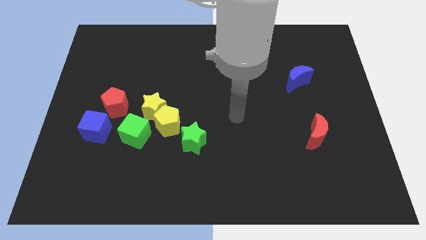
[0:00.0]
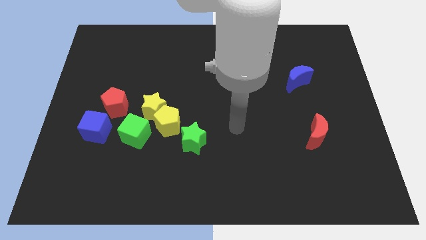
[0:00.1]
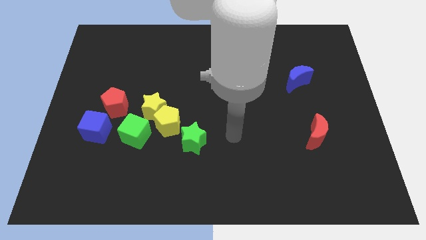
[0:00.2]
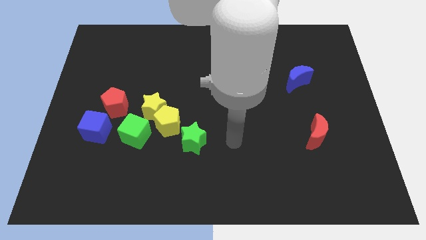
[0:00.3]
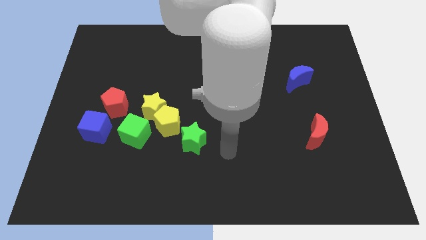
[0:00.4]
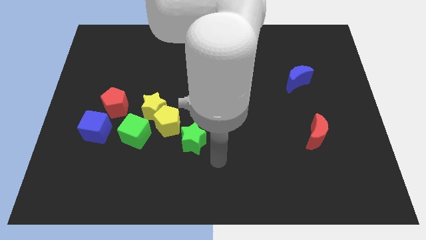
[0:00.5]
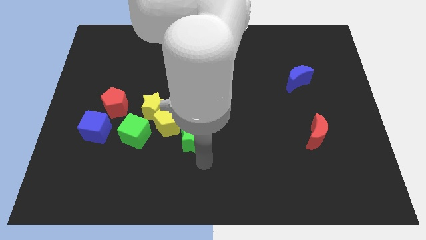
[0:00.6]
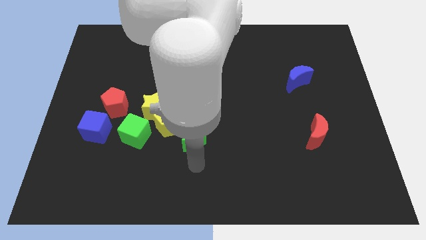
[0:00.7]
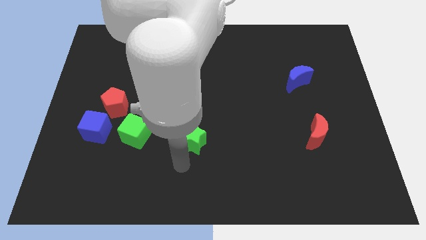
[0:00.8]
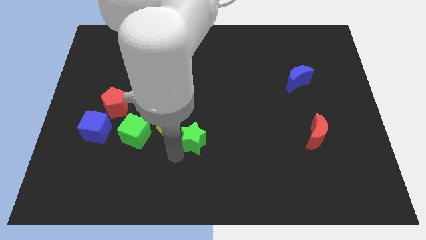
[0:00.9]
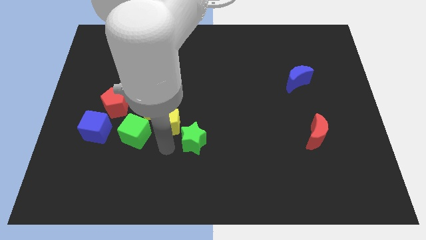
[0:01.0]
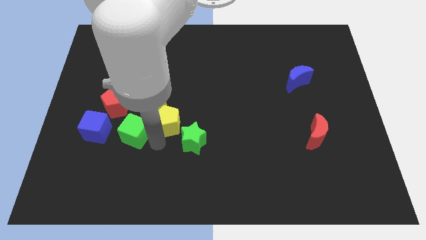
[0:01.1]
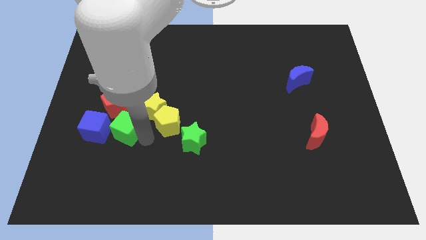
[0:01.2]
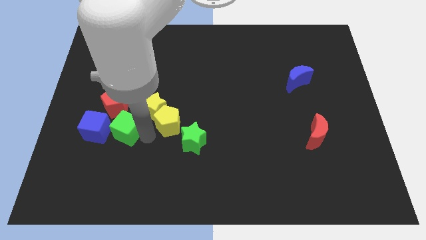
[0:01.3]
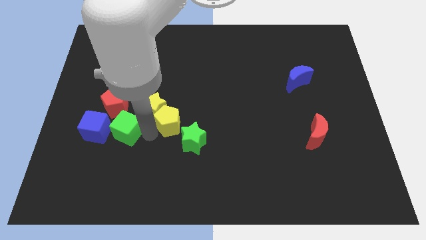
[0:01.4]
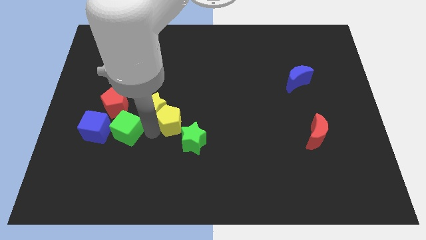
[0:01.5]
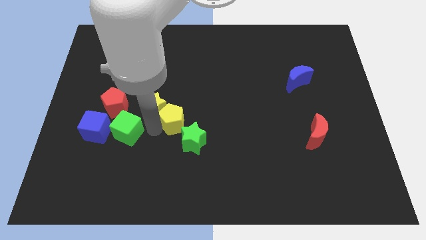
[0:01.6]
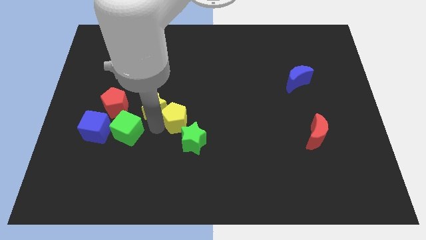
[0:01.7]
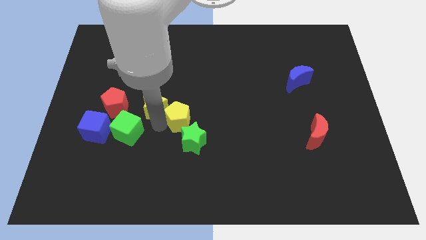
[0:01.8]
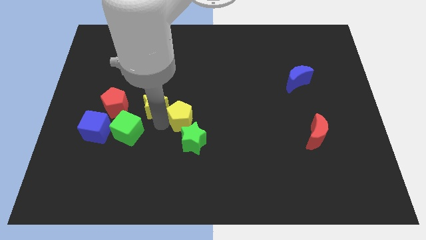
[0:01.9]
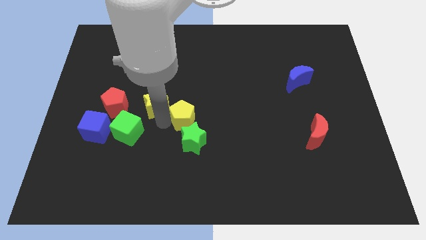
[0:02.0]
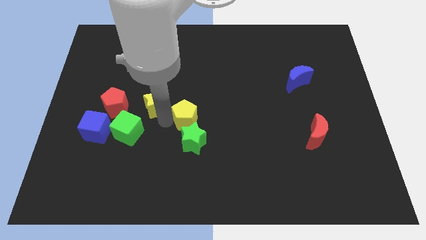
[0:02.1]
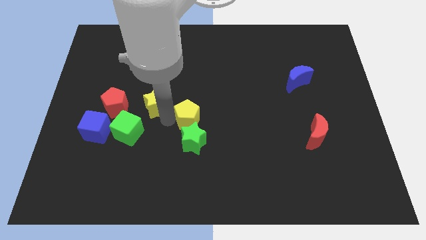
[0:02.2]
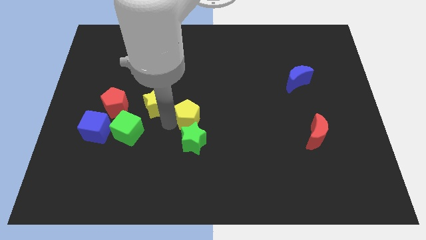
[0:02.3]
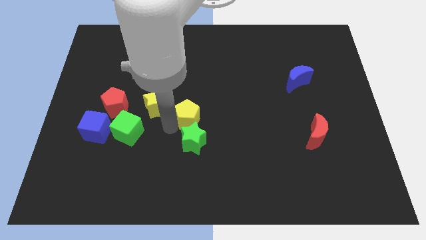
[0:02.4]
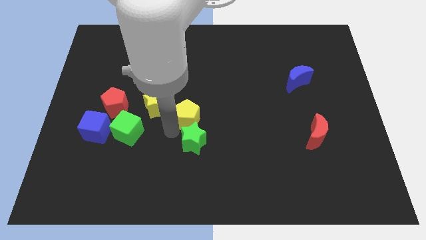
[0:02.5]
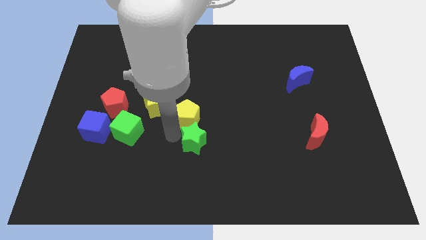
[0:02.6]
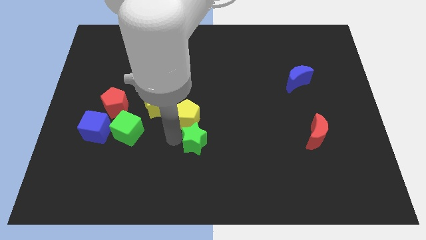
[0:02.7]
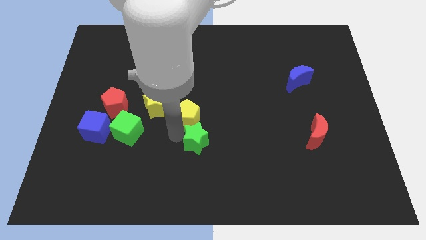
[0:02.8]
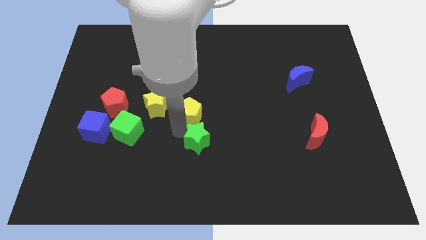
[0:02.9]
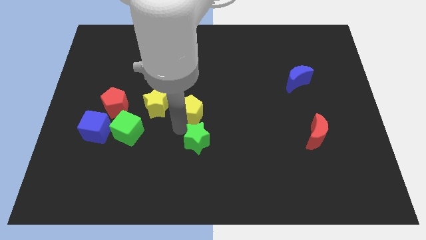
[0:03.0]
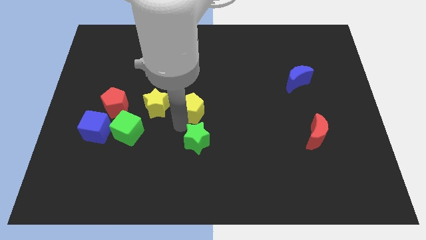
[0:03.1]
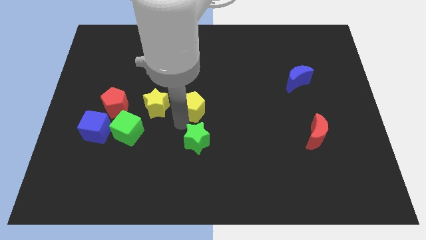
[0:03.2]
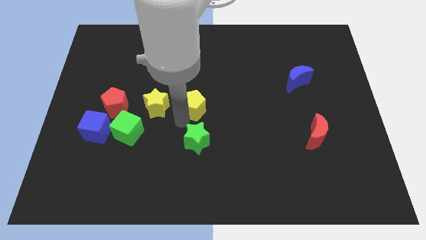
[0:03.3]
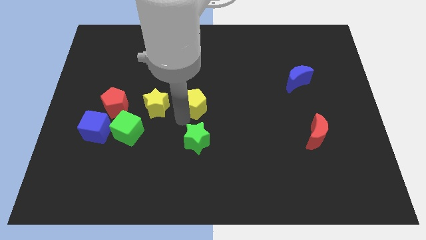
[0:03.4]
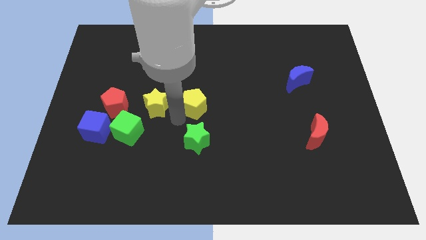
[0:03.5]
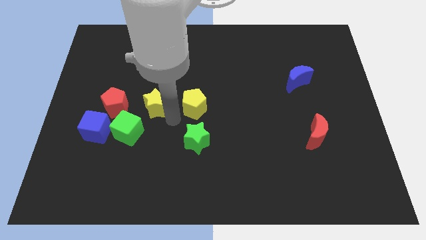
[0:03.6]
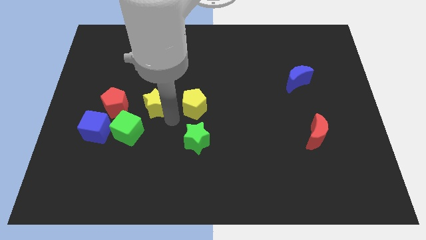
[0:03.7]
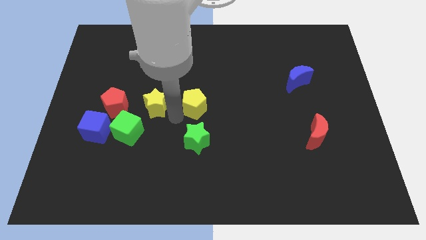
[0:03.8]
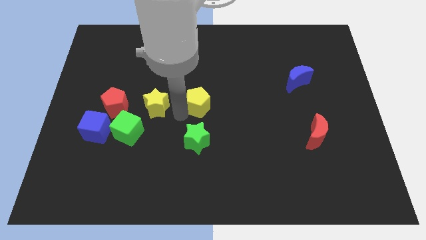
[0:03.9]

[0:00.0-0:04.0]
pull the yellow pentagon apart from the yellow star, green star, and green cube

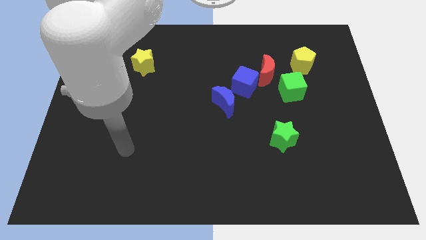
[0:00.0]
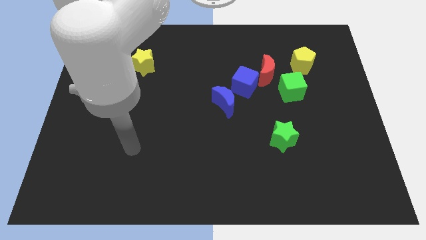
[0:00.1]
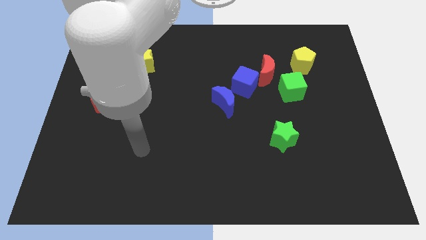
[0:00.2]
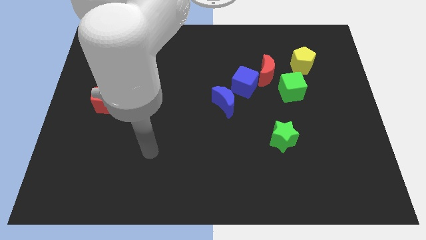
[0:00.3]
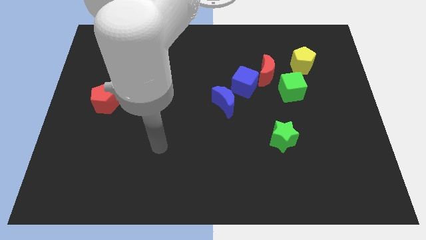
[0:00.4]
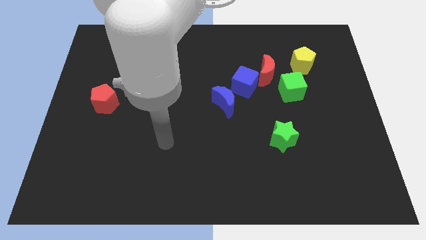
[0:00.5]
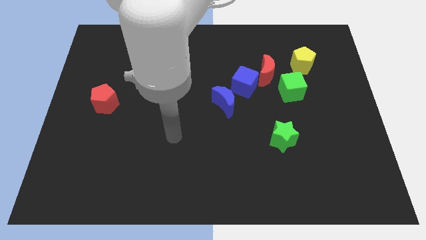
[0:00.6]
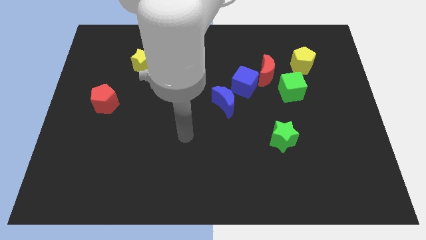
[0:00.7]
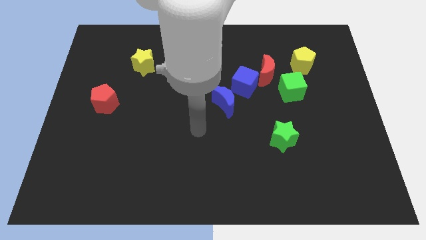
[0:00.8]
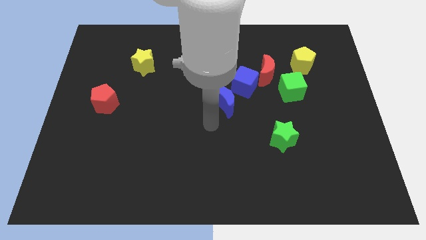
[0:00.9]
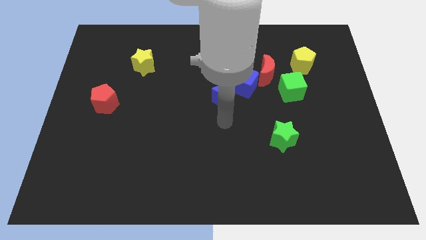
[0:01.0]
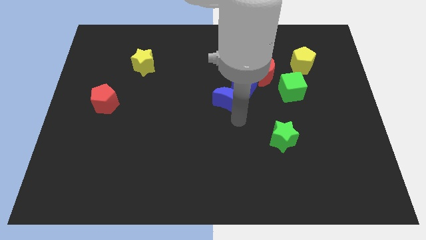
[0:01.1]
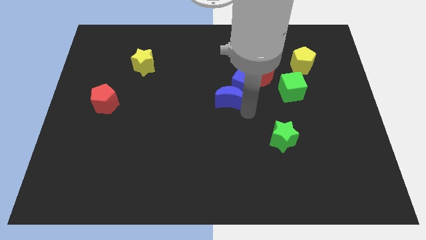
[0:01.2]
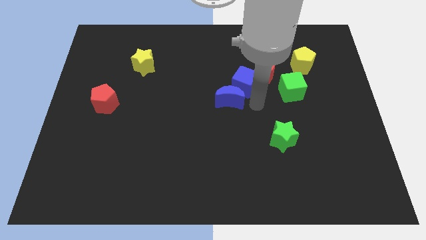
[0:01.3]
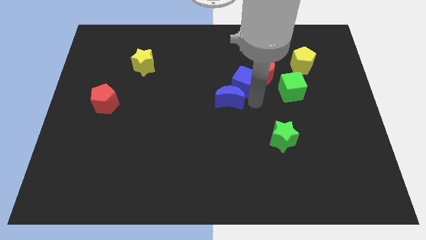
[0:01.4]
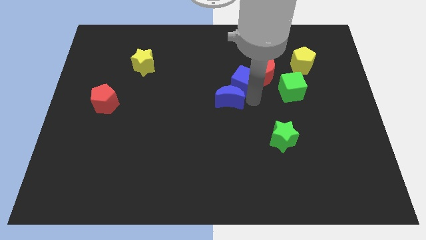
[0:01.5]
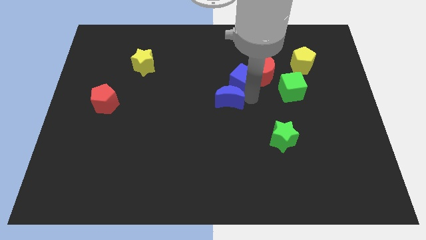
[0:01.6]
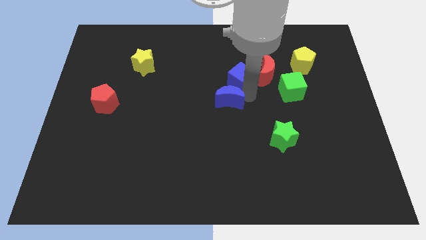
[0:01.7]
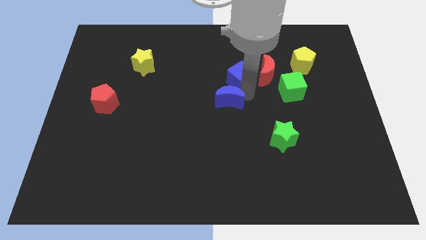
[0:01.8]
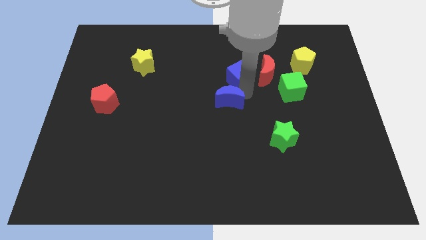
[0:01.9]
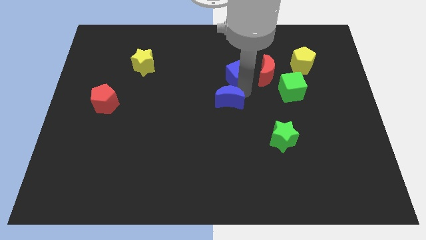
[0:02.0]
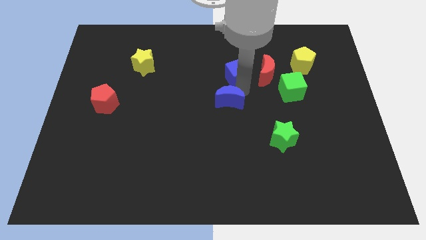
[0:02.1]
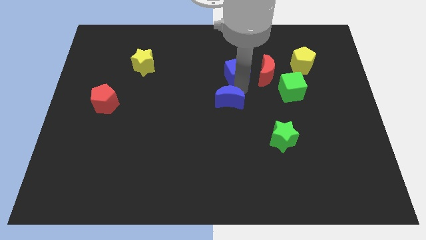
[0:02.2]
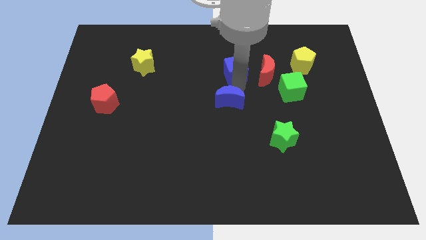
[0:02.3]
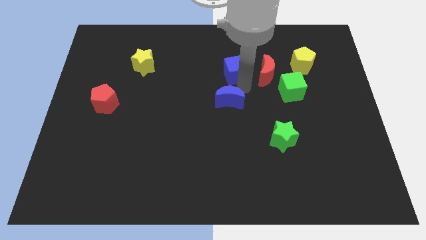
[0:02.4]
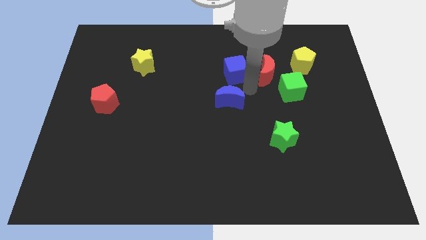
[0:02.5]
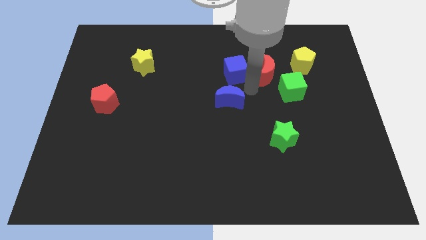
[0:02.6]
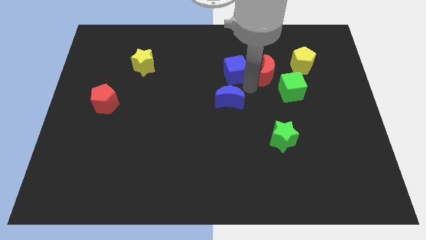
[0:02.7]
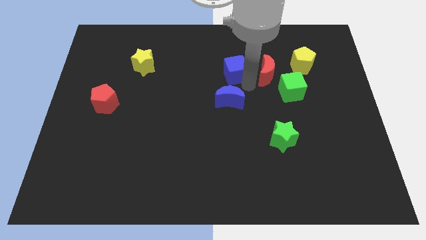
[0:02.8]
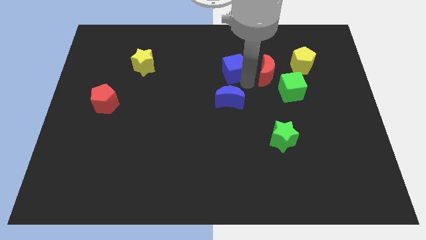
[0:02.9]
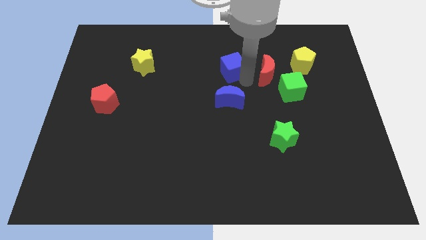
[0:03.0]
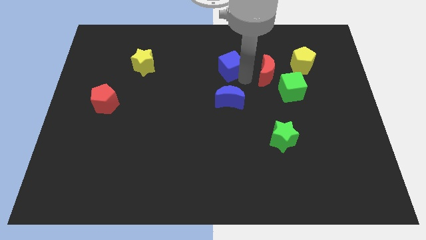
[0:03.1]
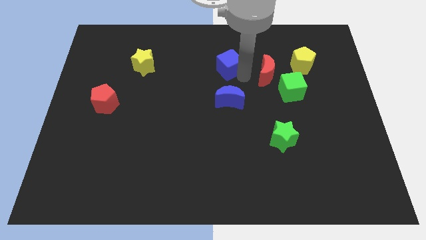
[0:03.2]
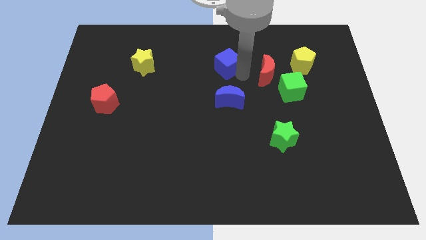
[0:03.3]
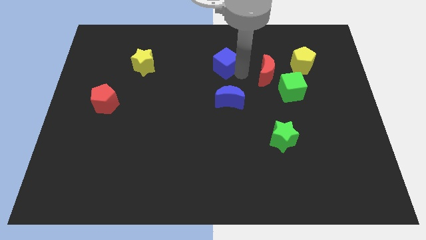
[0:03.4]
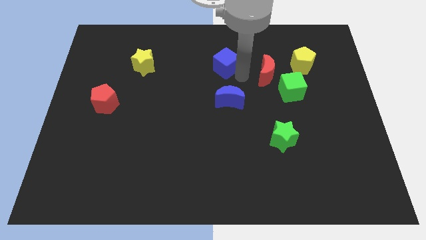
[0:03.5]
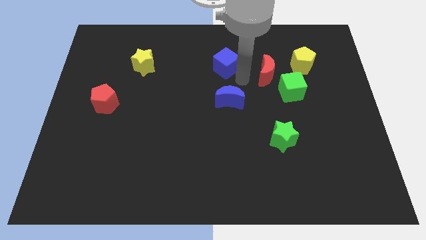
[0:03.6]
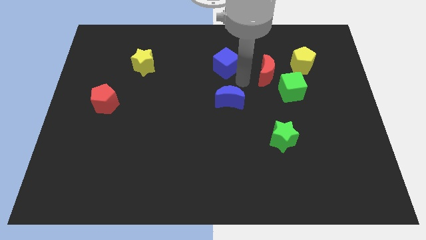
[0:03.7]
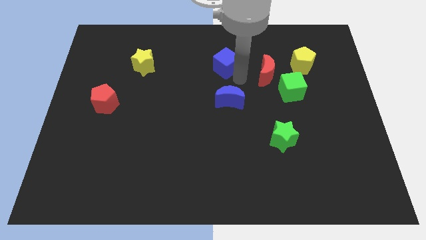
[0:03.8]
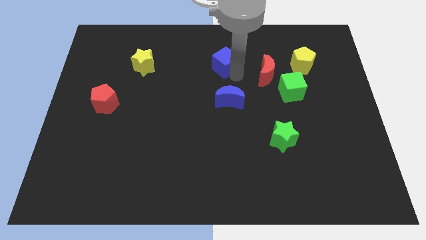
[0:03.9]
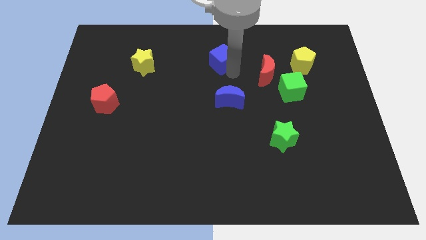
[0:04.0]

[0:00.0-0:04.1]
pull the blue cube apart from the red moon and blue moon

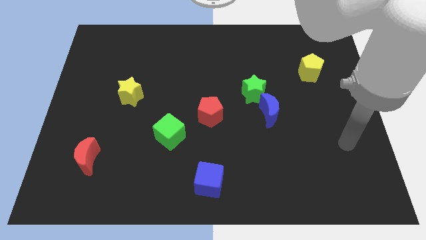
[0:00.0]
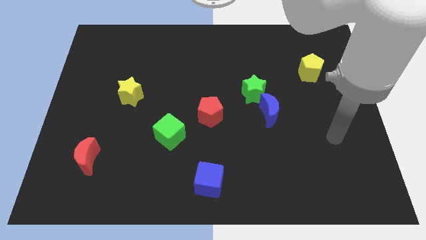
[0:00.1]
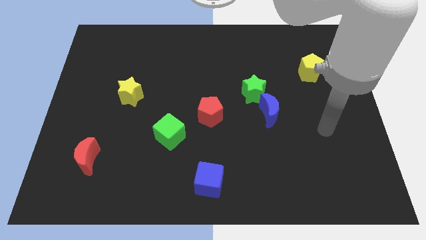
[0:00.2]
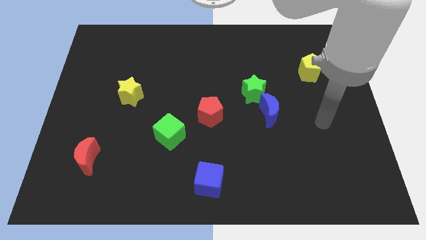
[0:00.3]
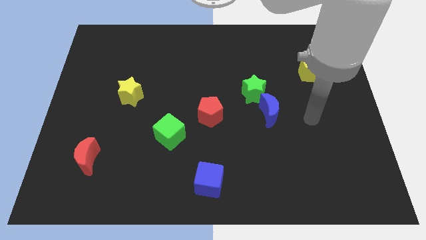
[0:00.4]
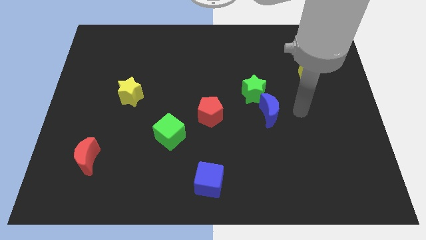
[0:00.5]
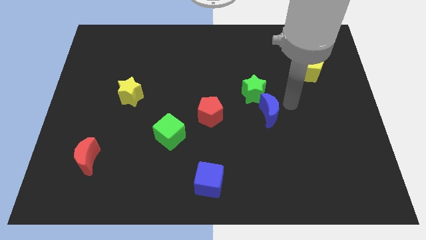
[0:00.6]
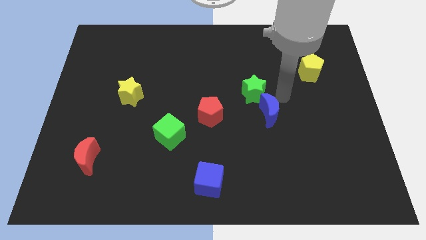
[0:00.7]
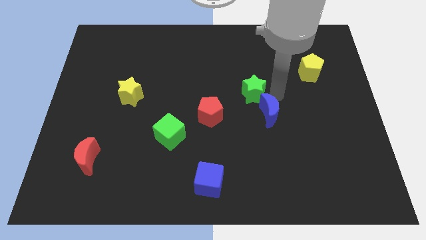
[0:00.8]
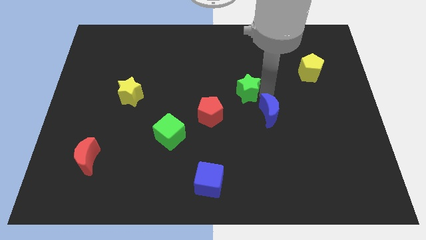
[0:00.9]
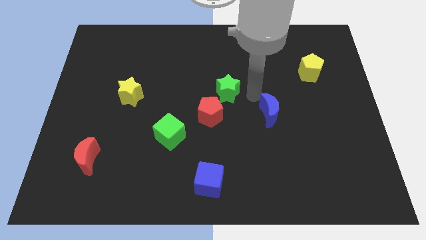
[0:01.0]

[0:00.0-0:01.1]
separate the blue moon from the green star

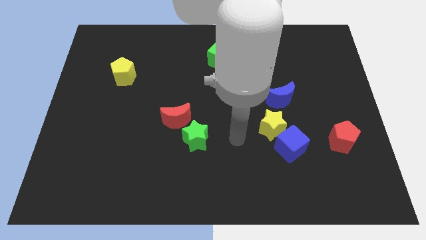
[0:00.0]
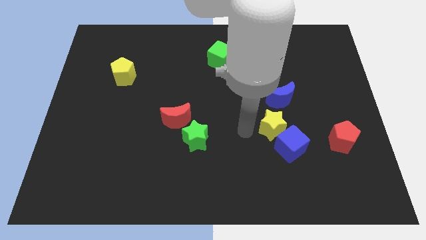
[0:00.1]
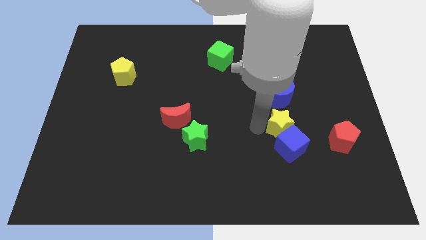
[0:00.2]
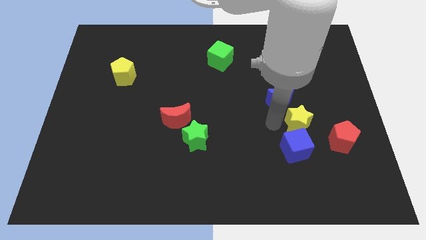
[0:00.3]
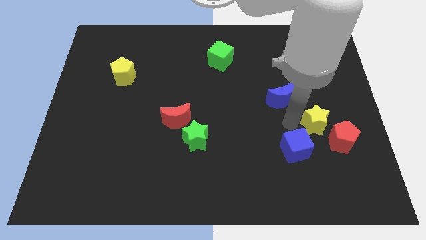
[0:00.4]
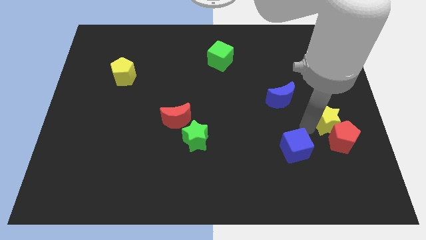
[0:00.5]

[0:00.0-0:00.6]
pull the blue cube apart from the yellow star
